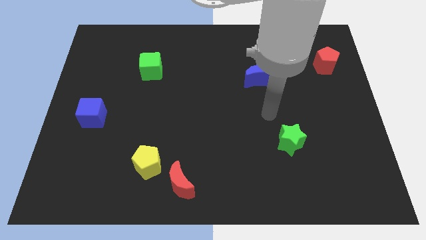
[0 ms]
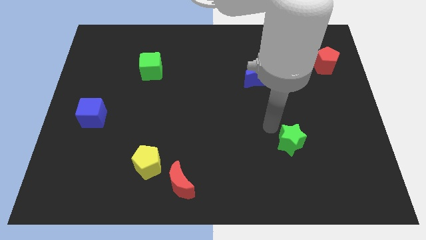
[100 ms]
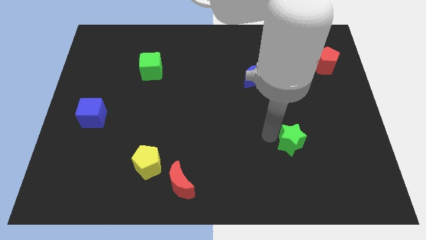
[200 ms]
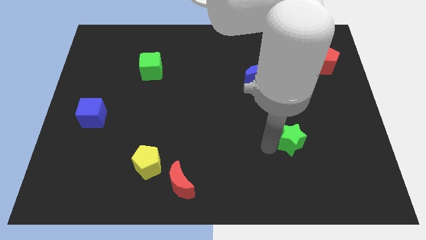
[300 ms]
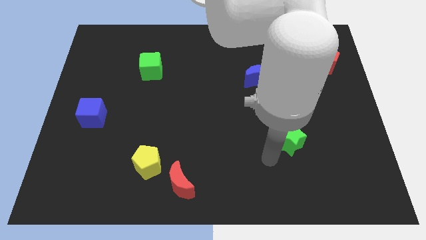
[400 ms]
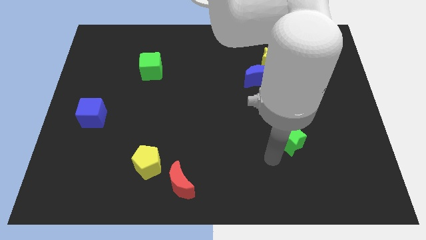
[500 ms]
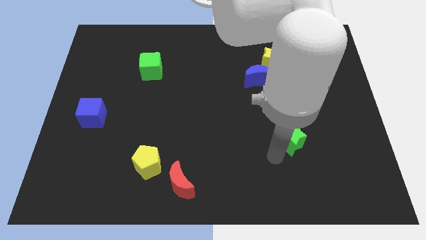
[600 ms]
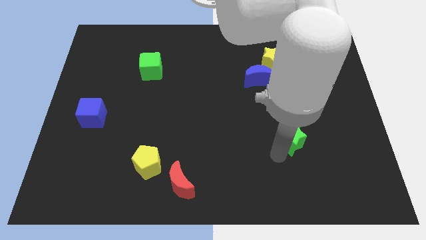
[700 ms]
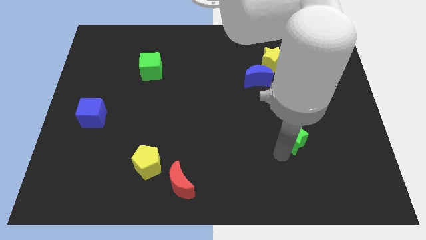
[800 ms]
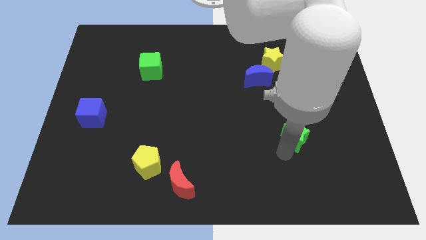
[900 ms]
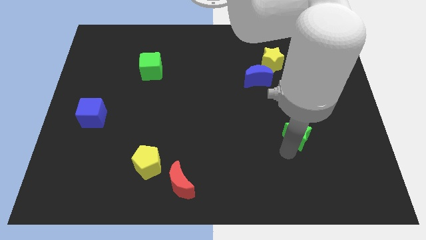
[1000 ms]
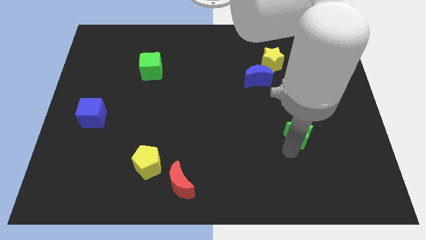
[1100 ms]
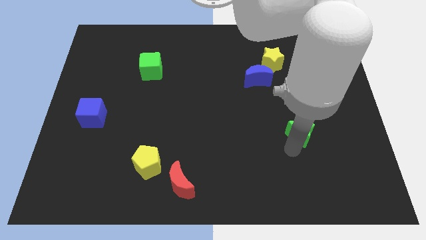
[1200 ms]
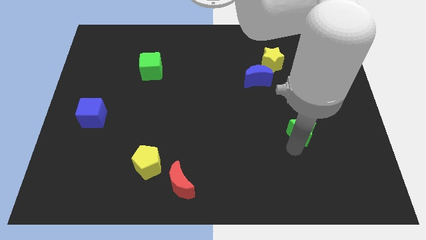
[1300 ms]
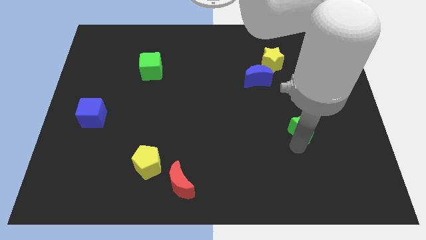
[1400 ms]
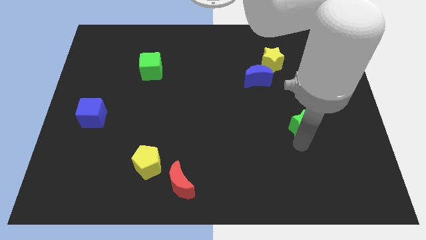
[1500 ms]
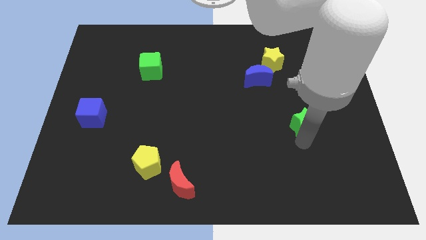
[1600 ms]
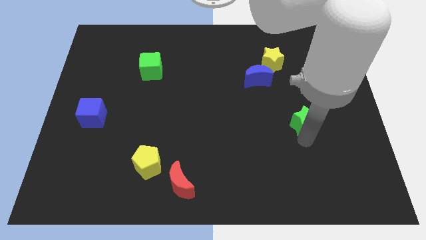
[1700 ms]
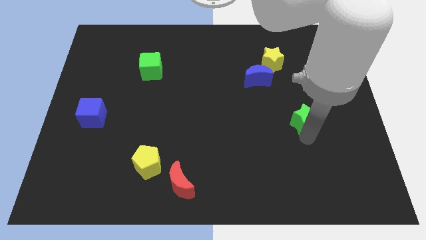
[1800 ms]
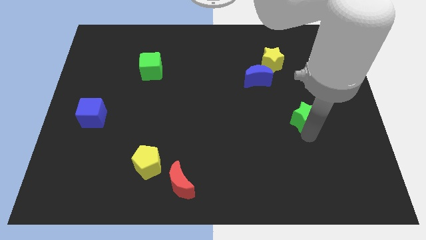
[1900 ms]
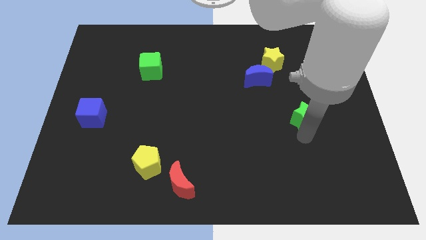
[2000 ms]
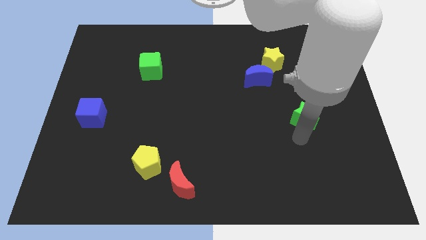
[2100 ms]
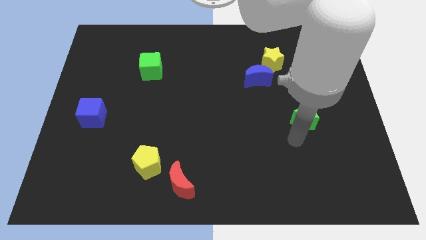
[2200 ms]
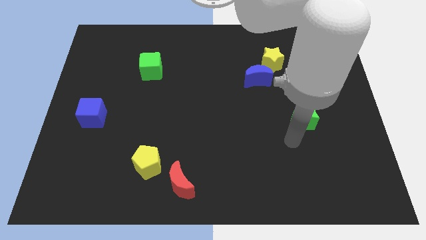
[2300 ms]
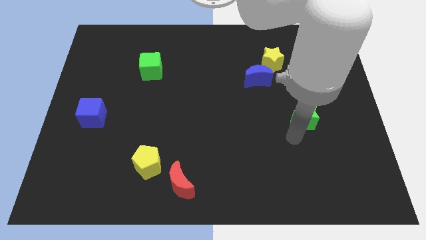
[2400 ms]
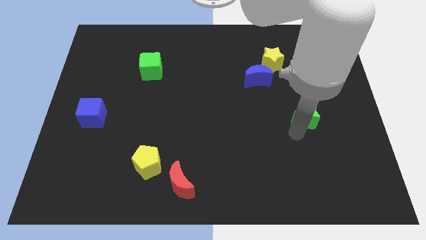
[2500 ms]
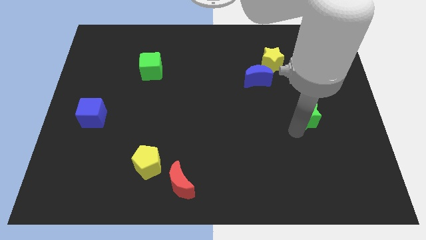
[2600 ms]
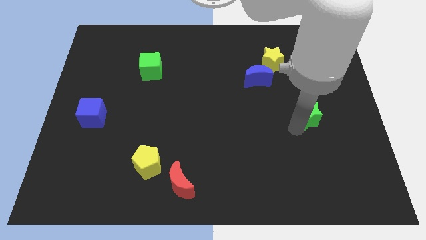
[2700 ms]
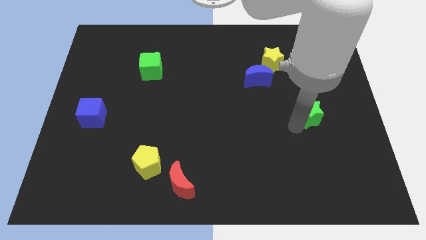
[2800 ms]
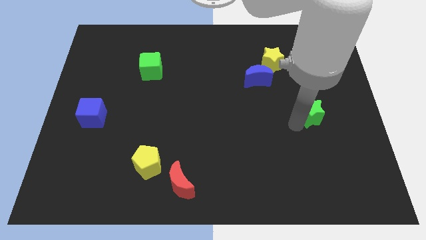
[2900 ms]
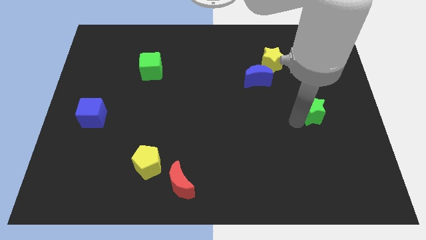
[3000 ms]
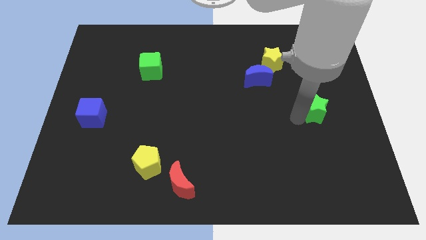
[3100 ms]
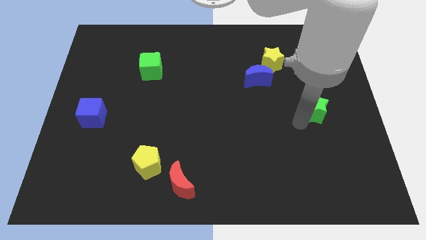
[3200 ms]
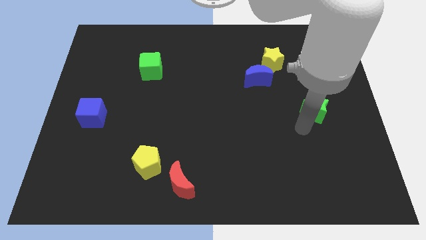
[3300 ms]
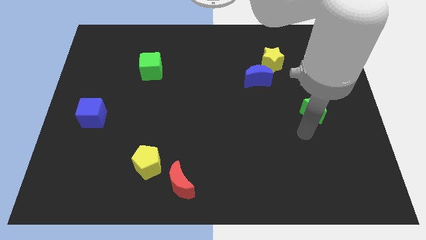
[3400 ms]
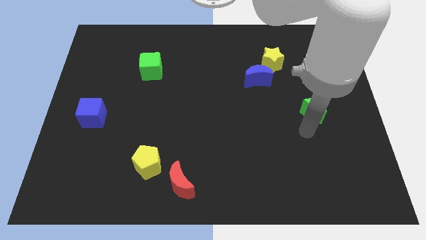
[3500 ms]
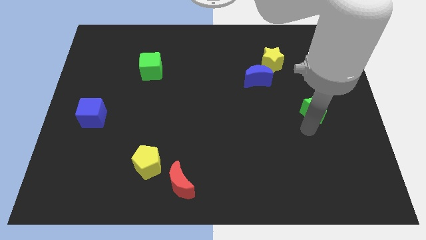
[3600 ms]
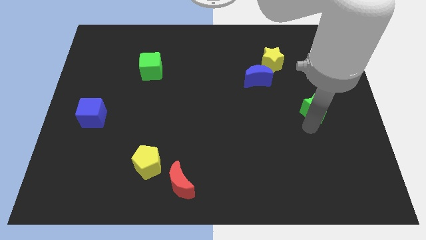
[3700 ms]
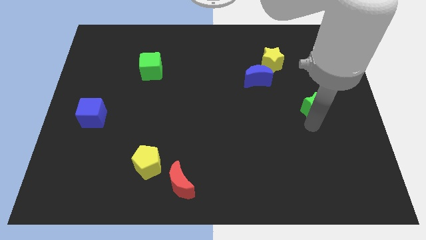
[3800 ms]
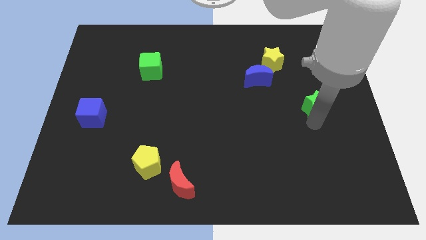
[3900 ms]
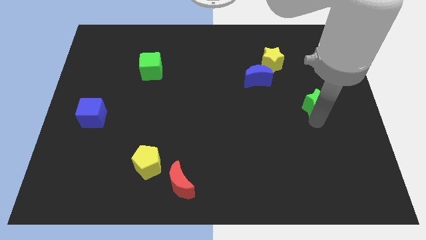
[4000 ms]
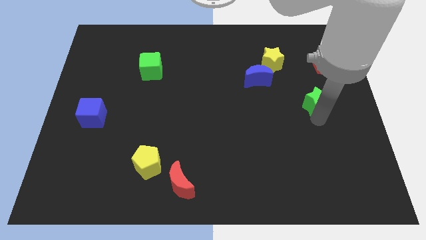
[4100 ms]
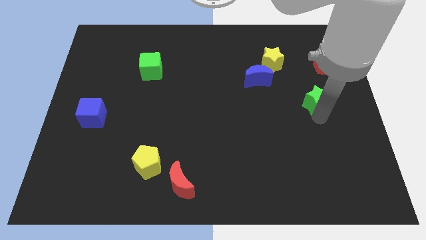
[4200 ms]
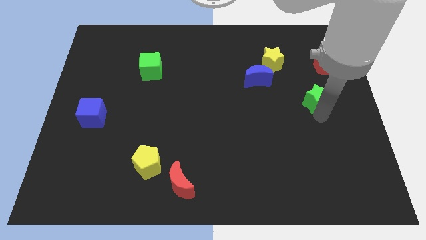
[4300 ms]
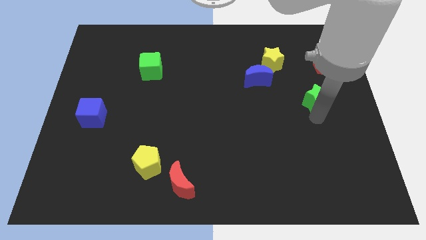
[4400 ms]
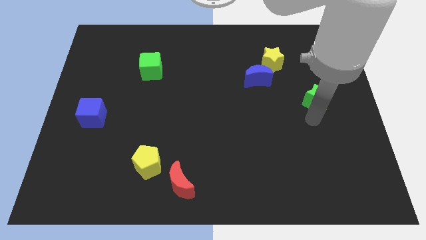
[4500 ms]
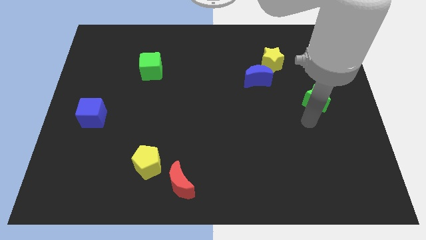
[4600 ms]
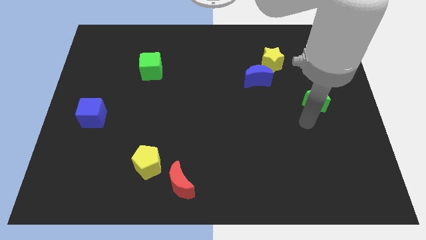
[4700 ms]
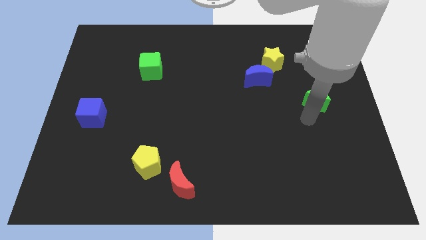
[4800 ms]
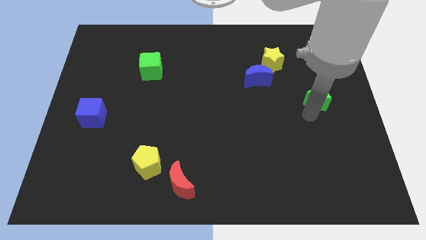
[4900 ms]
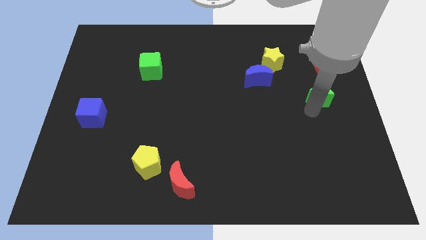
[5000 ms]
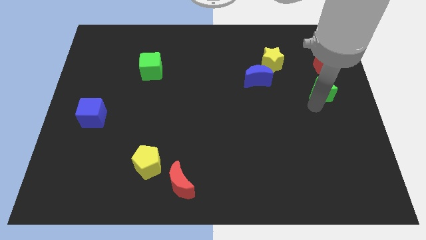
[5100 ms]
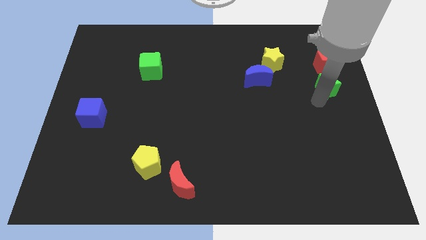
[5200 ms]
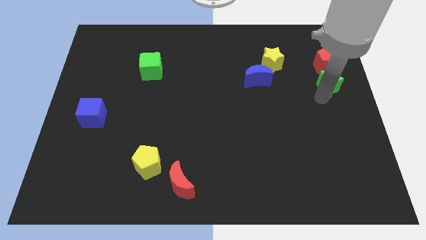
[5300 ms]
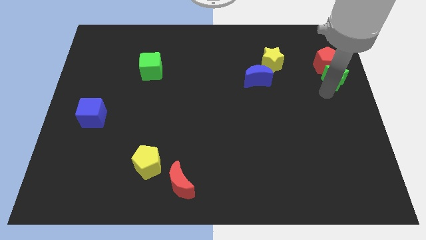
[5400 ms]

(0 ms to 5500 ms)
push the green star close to the red pentagon

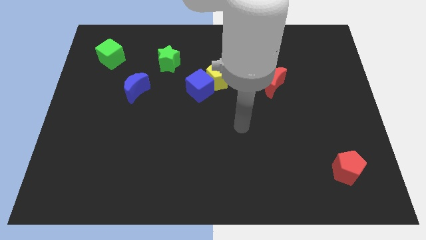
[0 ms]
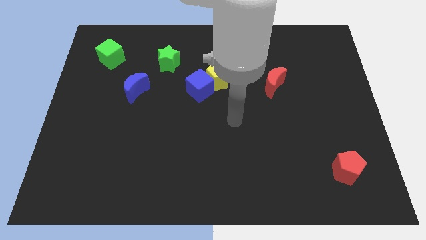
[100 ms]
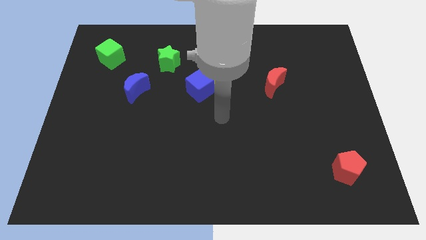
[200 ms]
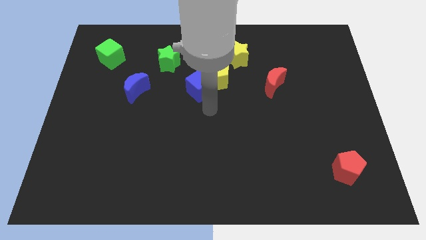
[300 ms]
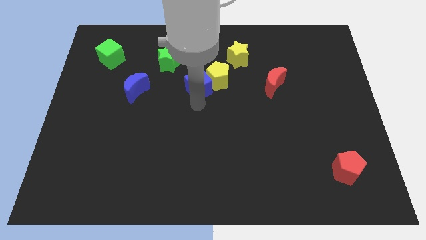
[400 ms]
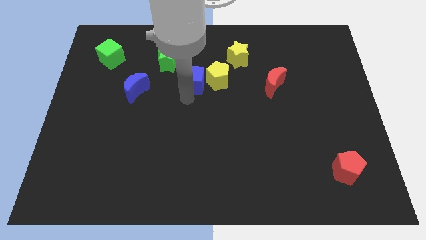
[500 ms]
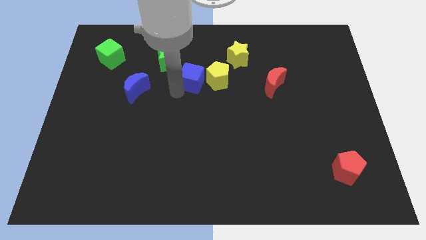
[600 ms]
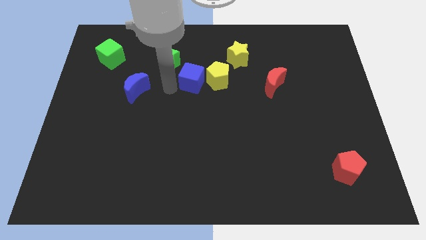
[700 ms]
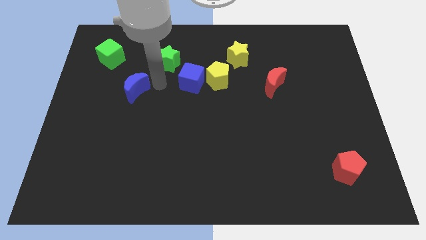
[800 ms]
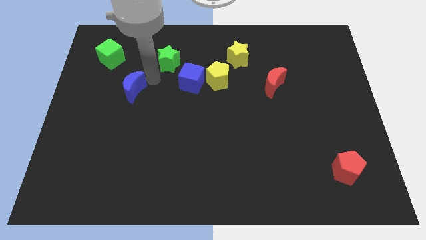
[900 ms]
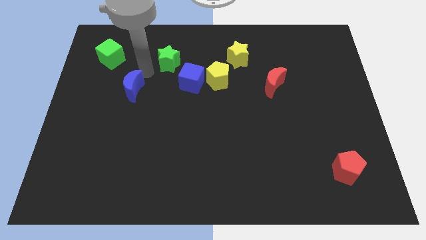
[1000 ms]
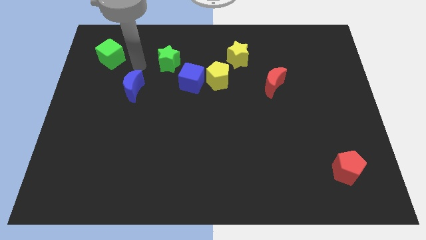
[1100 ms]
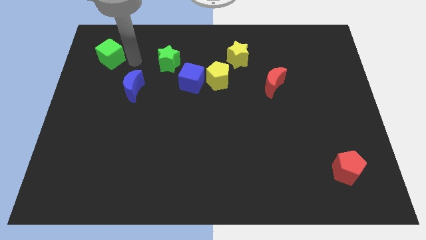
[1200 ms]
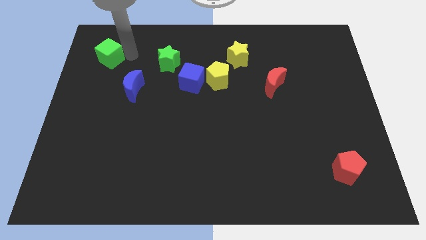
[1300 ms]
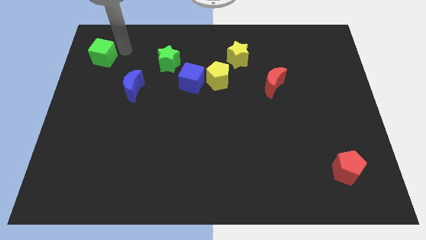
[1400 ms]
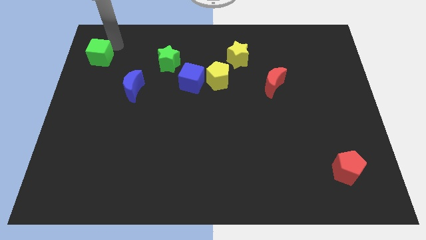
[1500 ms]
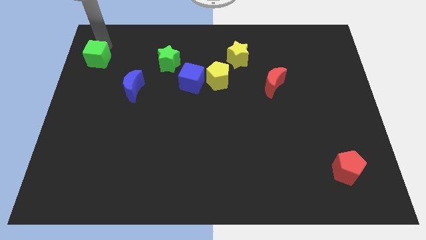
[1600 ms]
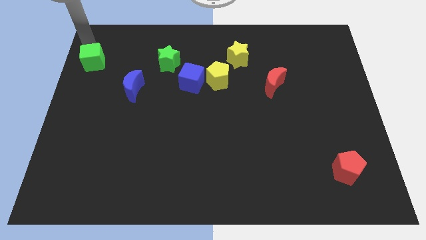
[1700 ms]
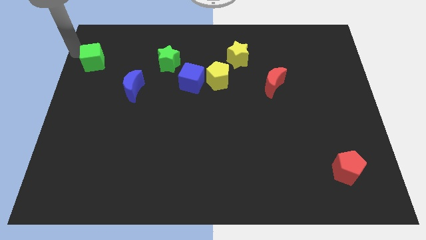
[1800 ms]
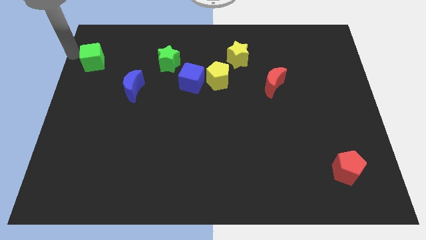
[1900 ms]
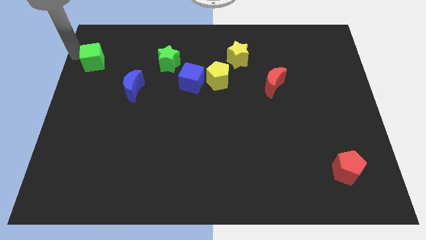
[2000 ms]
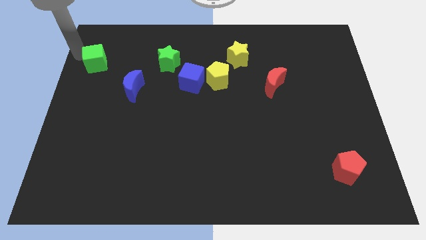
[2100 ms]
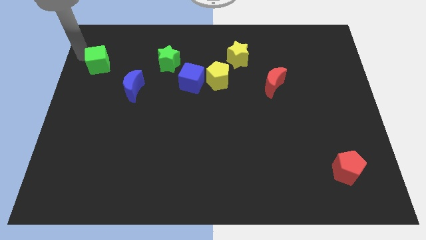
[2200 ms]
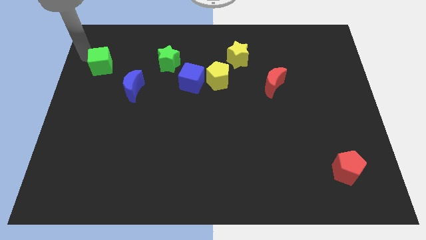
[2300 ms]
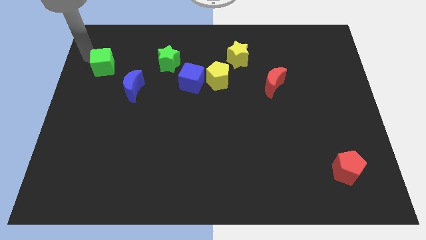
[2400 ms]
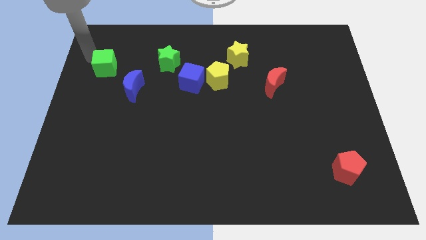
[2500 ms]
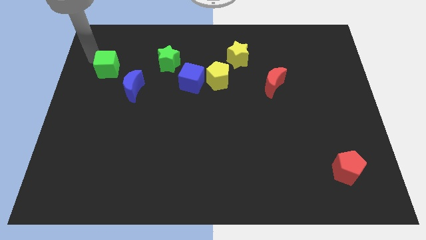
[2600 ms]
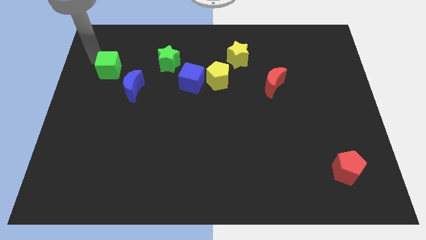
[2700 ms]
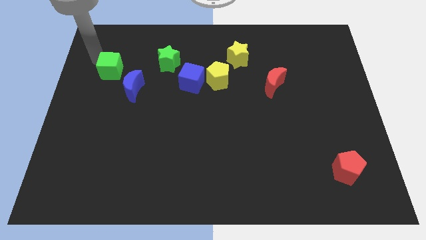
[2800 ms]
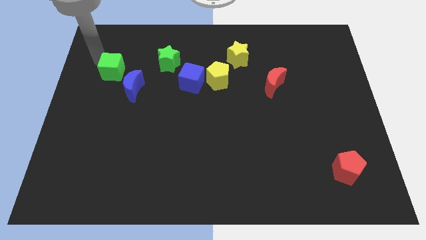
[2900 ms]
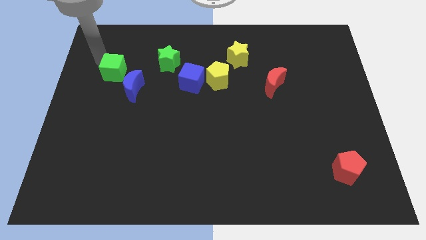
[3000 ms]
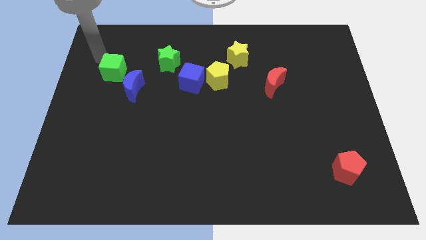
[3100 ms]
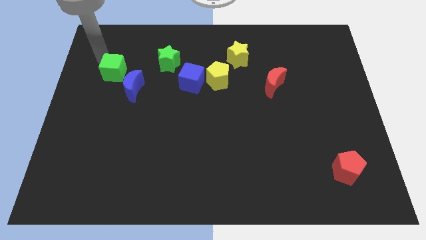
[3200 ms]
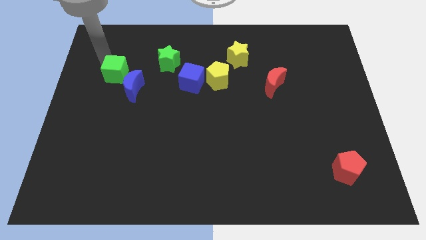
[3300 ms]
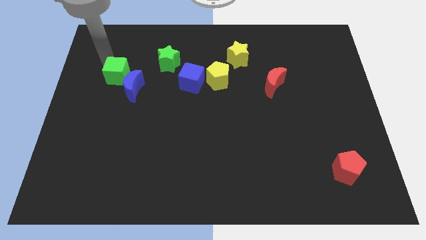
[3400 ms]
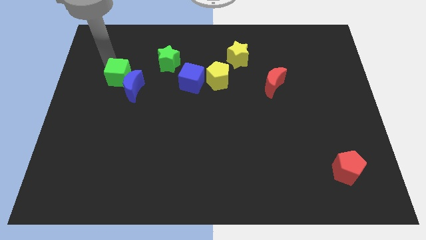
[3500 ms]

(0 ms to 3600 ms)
push the green cube to the blue moon
